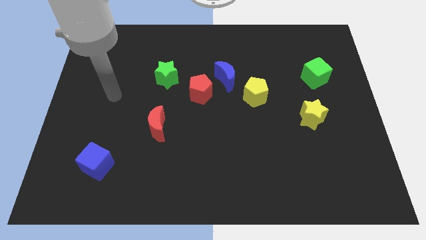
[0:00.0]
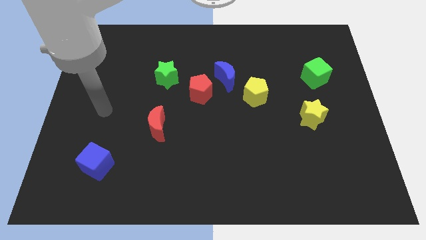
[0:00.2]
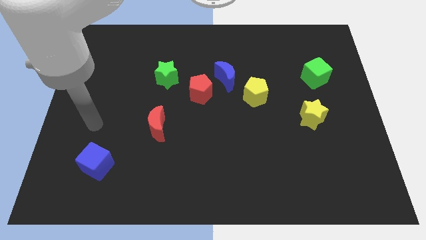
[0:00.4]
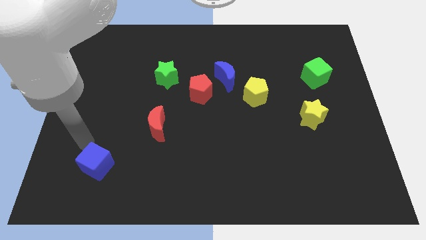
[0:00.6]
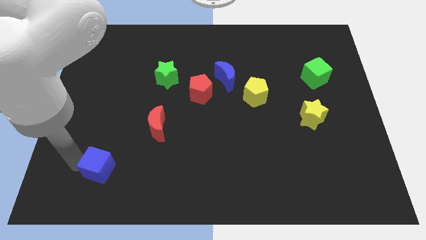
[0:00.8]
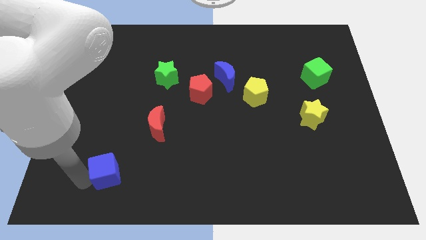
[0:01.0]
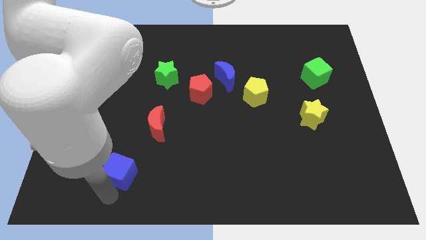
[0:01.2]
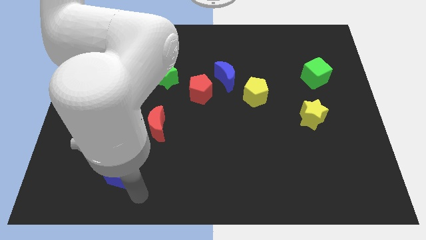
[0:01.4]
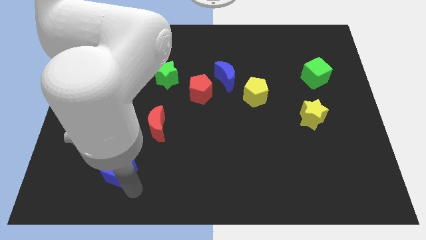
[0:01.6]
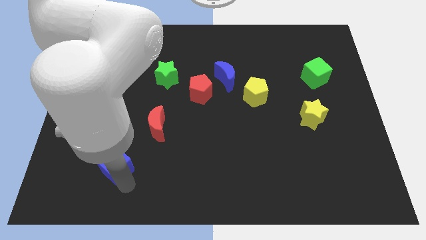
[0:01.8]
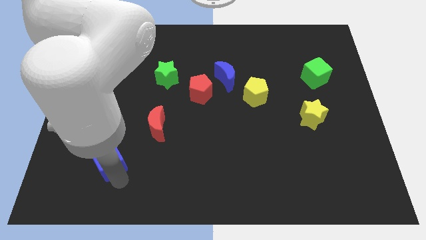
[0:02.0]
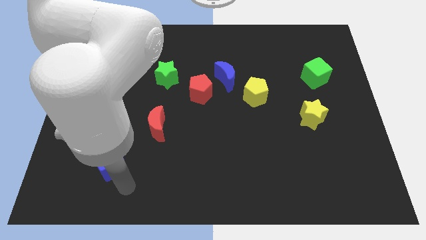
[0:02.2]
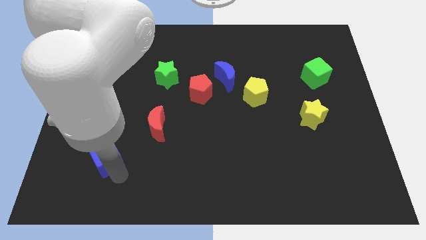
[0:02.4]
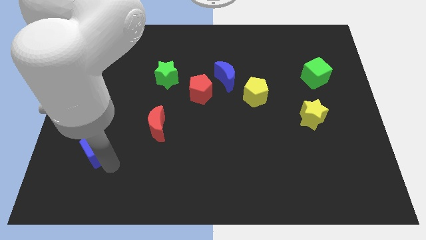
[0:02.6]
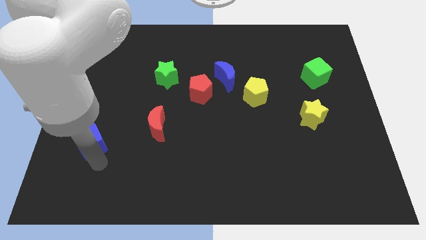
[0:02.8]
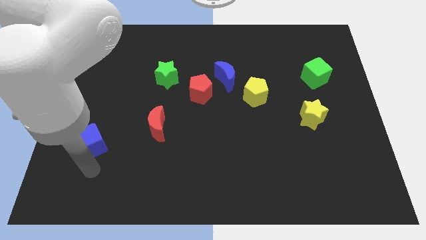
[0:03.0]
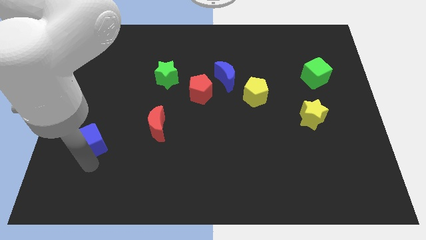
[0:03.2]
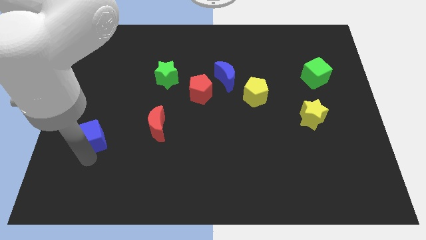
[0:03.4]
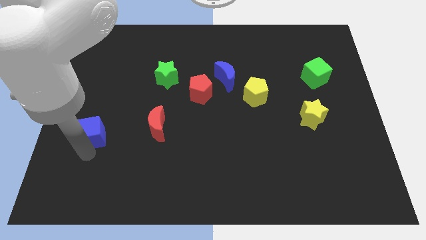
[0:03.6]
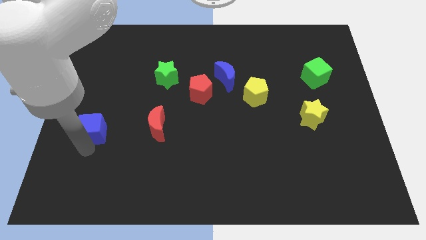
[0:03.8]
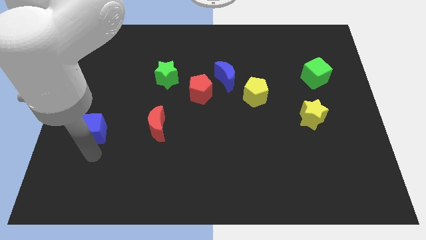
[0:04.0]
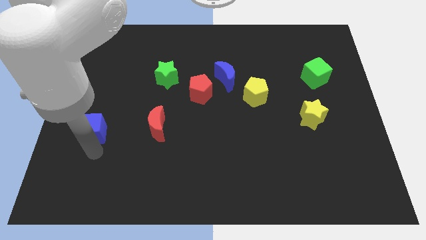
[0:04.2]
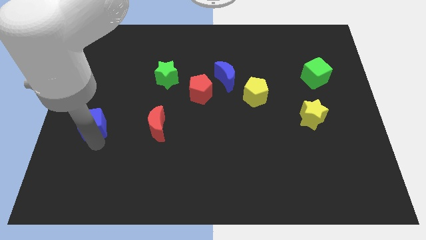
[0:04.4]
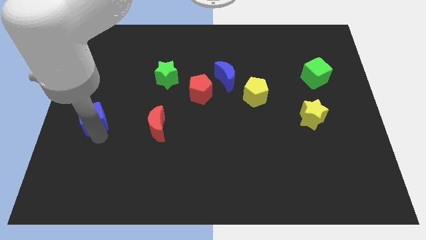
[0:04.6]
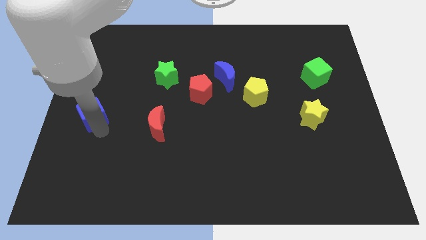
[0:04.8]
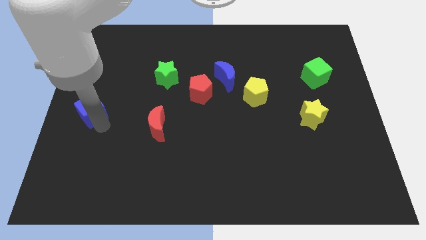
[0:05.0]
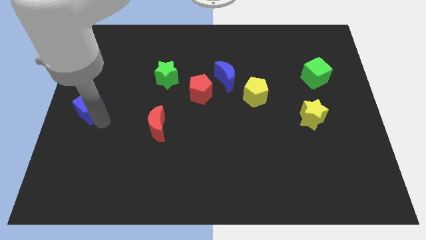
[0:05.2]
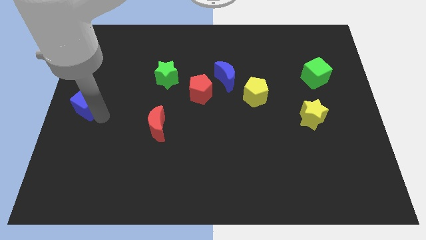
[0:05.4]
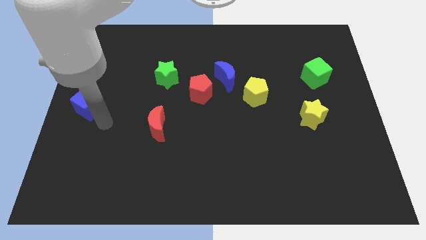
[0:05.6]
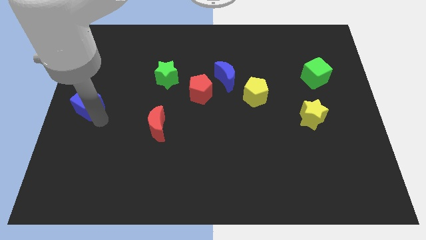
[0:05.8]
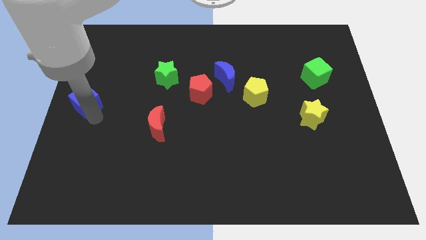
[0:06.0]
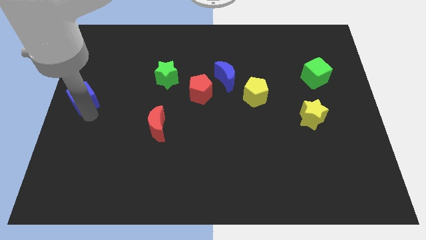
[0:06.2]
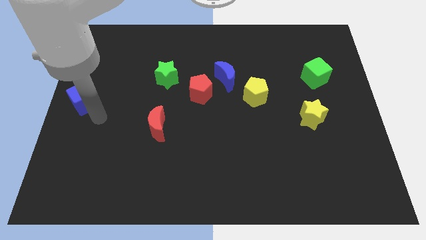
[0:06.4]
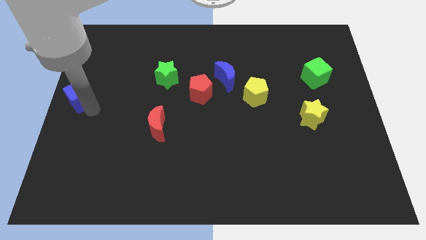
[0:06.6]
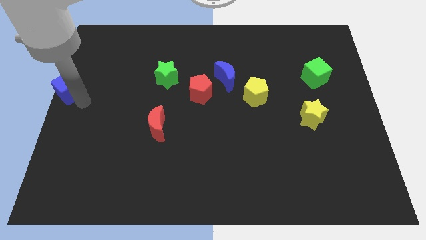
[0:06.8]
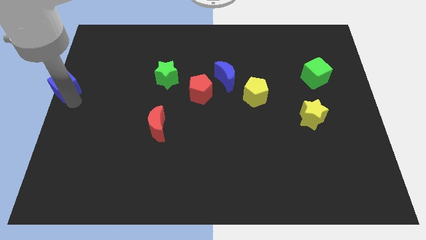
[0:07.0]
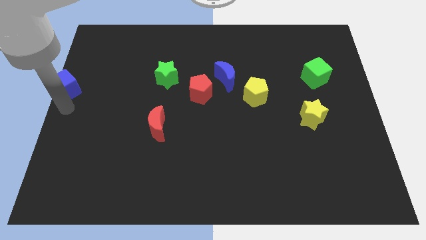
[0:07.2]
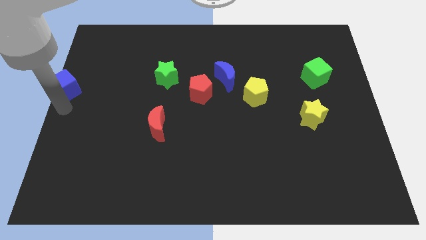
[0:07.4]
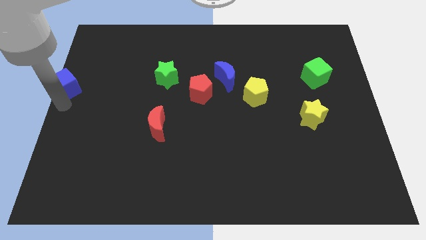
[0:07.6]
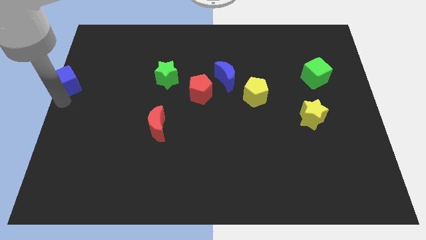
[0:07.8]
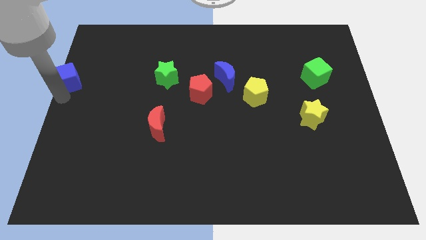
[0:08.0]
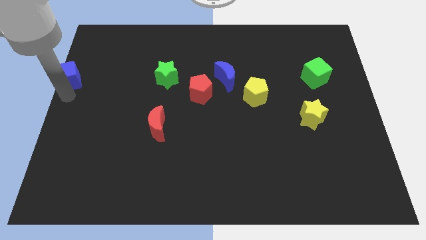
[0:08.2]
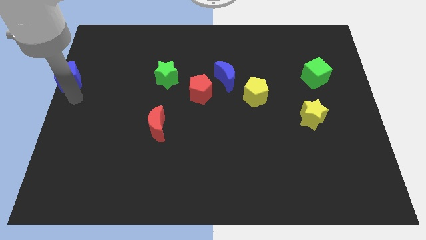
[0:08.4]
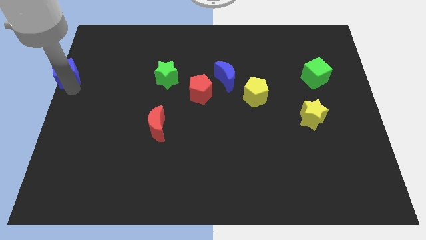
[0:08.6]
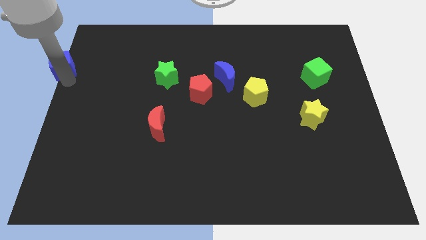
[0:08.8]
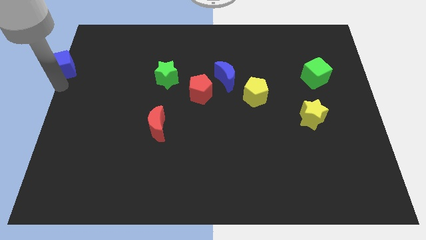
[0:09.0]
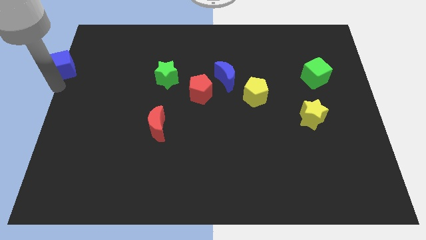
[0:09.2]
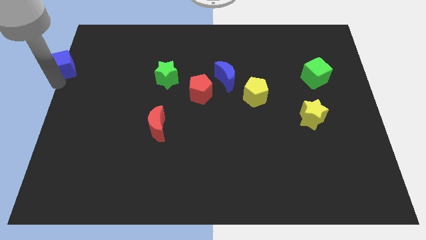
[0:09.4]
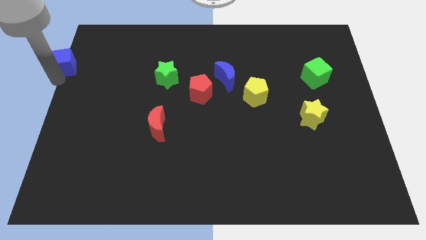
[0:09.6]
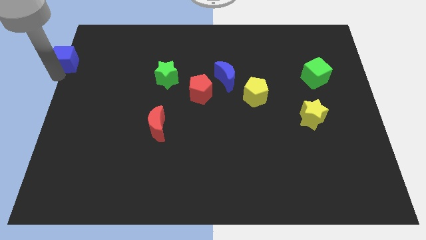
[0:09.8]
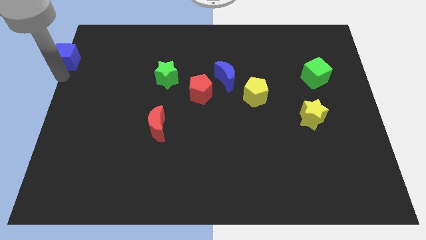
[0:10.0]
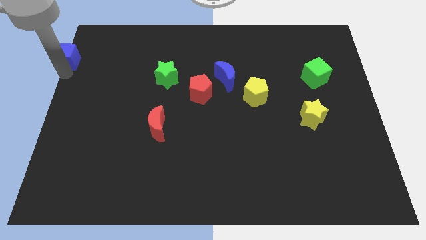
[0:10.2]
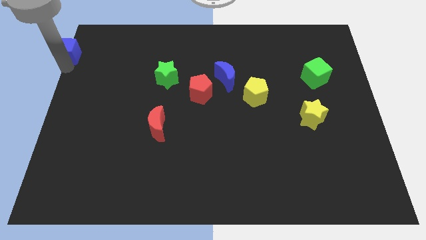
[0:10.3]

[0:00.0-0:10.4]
push the blue cube to the top left corner

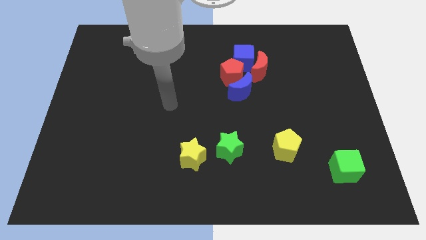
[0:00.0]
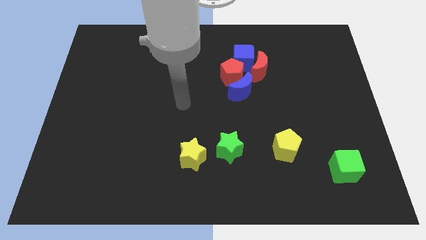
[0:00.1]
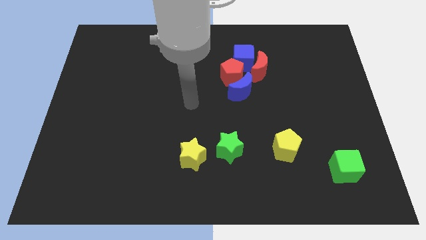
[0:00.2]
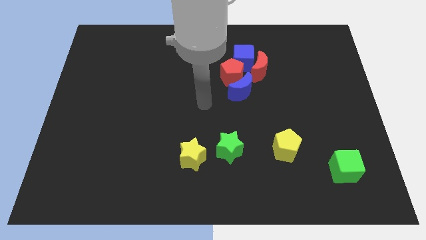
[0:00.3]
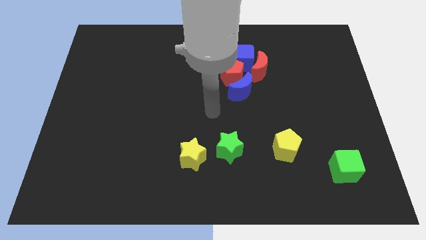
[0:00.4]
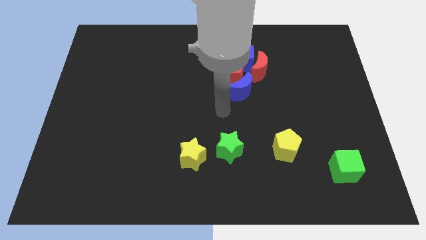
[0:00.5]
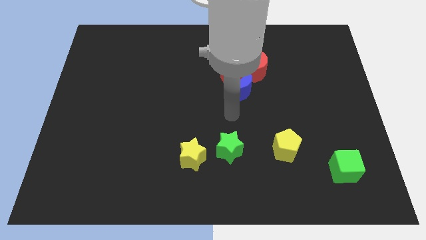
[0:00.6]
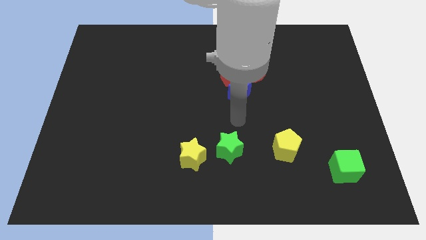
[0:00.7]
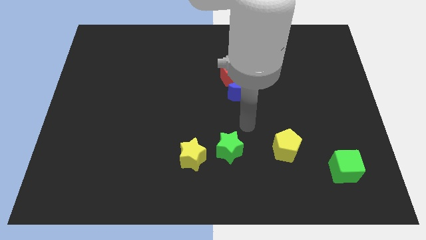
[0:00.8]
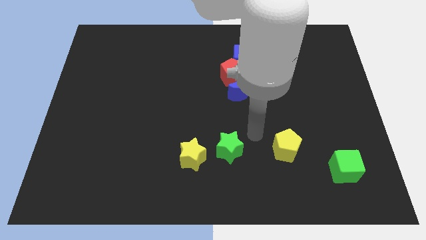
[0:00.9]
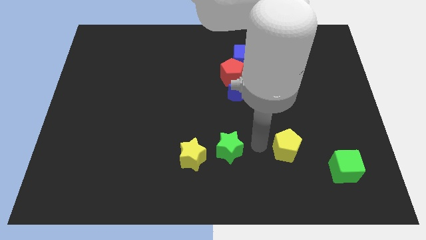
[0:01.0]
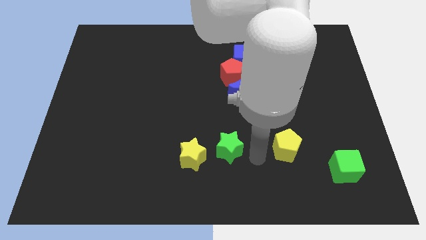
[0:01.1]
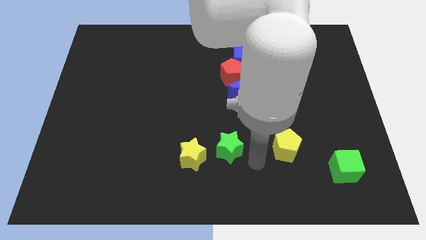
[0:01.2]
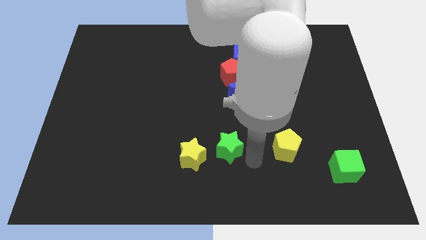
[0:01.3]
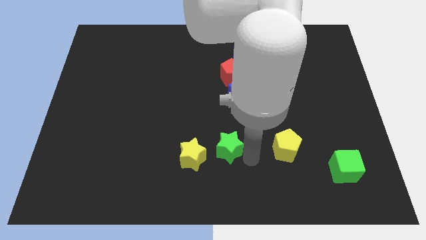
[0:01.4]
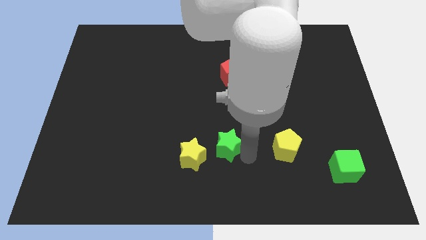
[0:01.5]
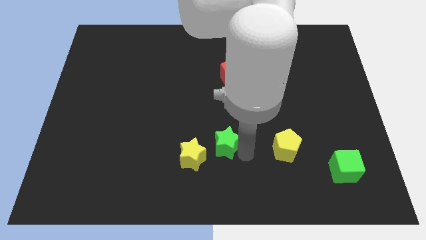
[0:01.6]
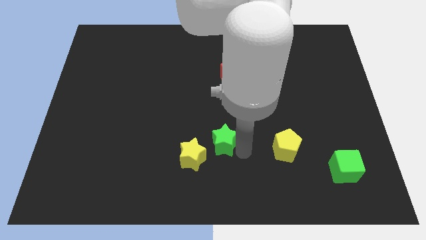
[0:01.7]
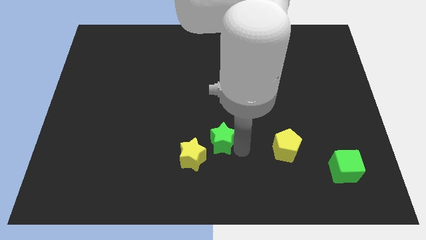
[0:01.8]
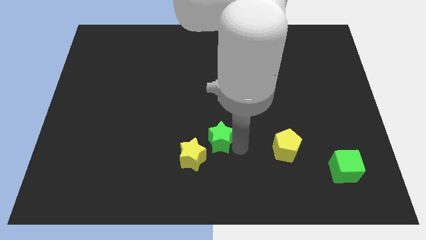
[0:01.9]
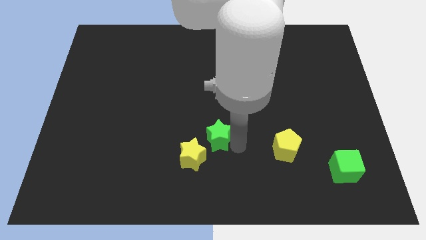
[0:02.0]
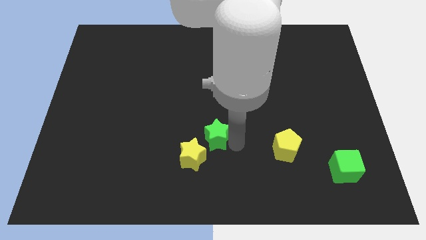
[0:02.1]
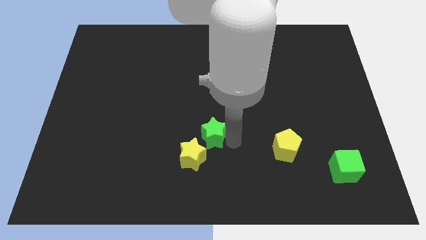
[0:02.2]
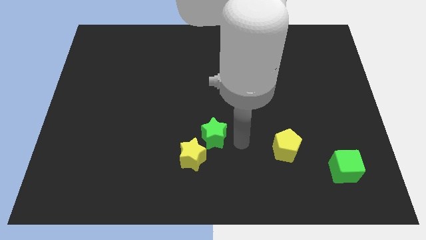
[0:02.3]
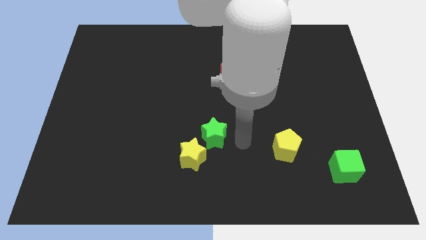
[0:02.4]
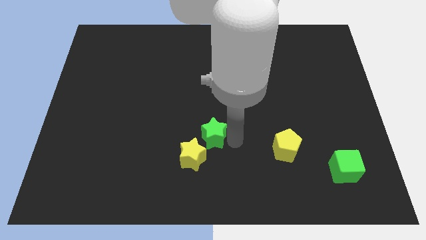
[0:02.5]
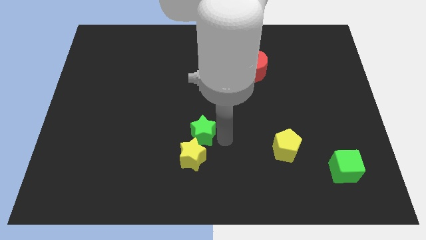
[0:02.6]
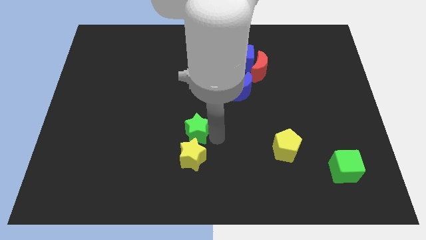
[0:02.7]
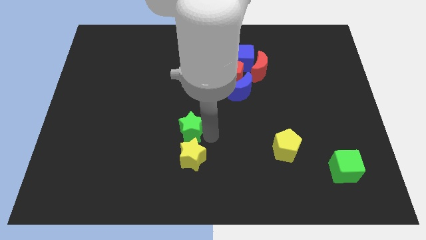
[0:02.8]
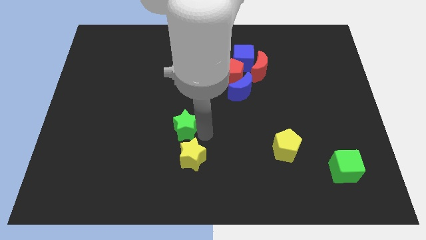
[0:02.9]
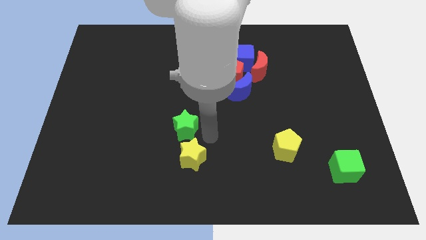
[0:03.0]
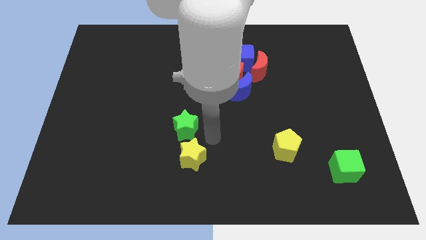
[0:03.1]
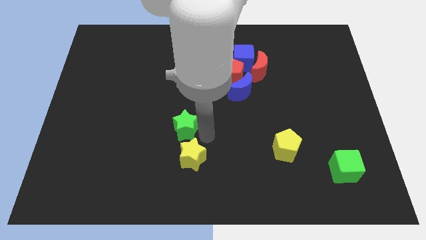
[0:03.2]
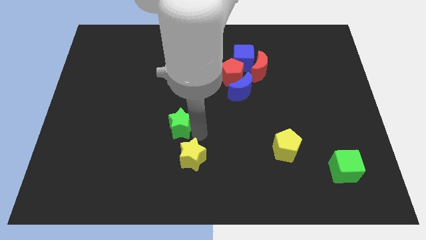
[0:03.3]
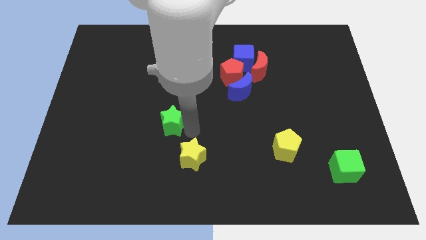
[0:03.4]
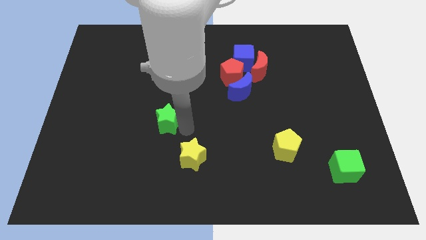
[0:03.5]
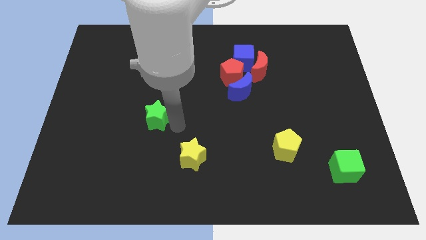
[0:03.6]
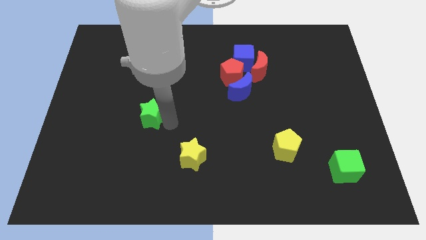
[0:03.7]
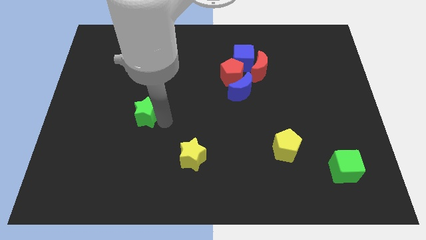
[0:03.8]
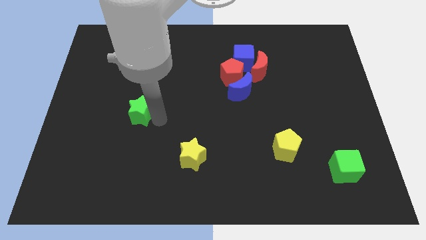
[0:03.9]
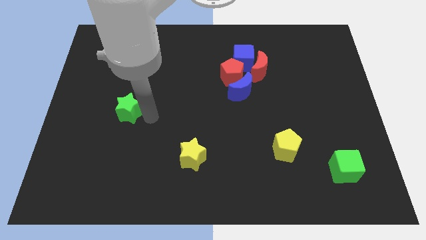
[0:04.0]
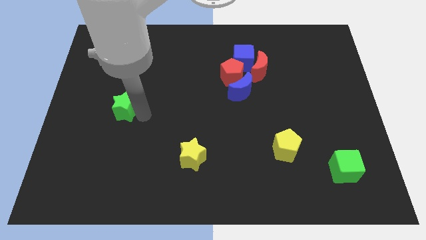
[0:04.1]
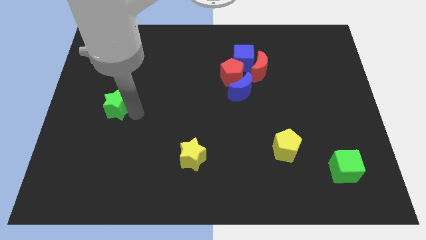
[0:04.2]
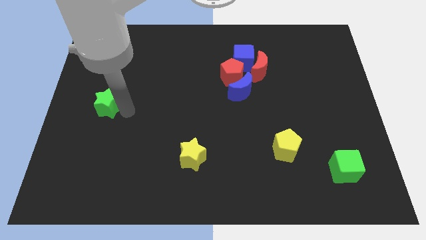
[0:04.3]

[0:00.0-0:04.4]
slide the green star to the center left
